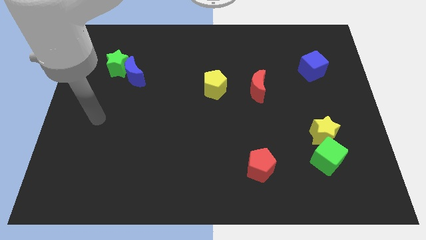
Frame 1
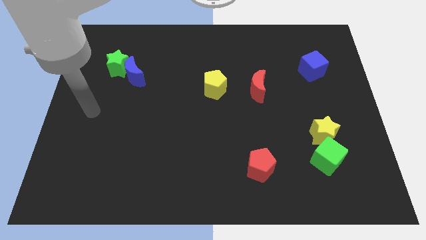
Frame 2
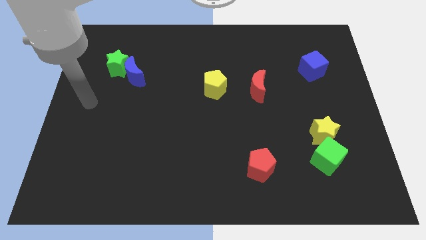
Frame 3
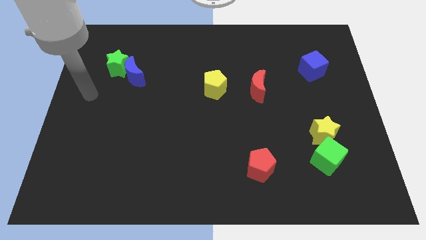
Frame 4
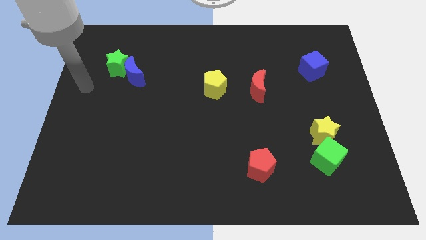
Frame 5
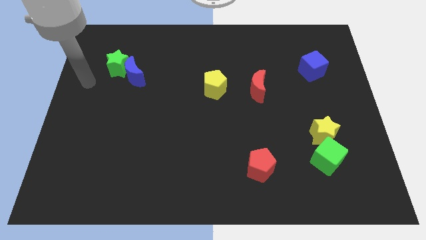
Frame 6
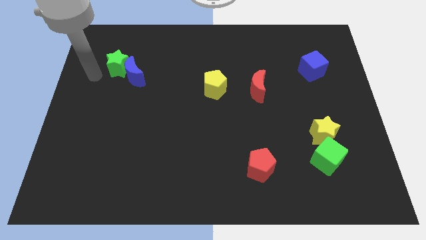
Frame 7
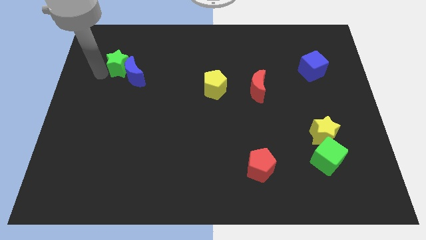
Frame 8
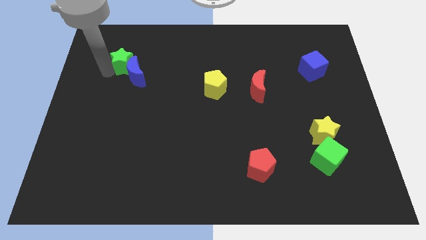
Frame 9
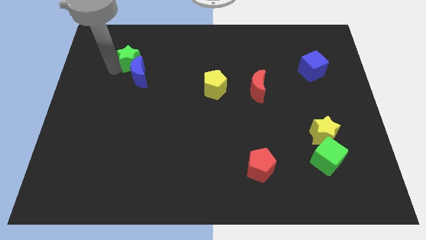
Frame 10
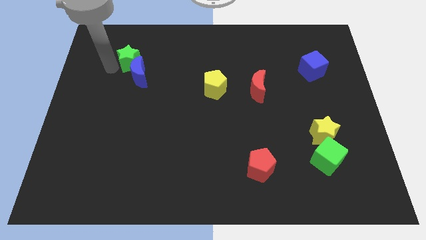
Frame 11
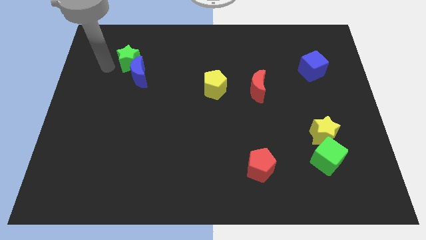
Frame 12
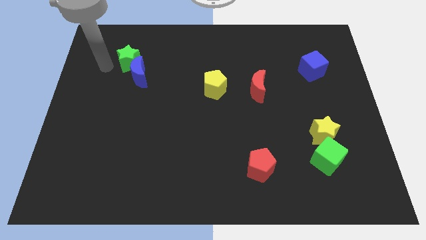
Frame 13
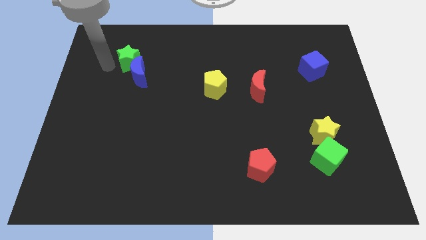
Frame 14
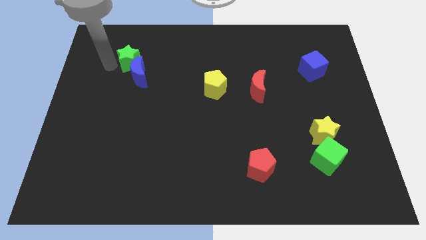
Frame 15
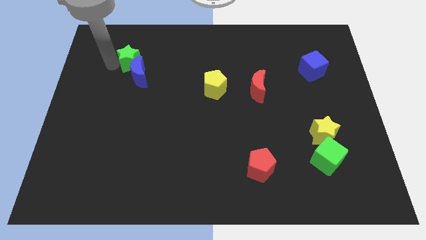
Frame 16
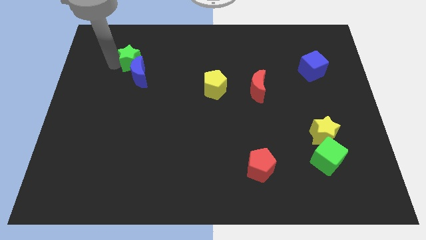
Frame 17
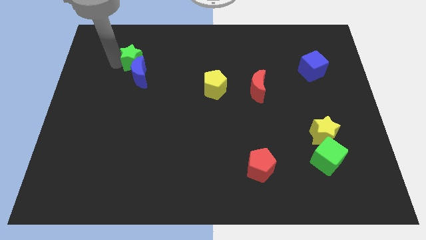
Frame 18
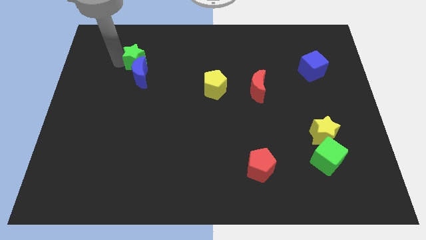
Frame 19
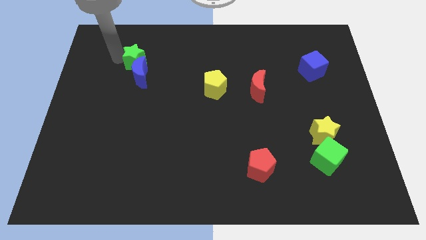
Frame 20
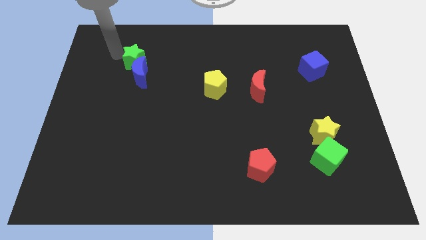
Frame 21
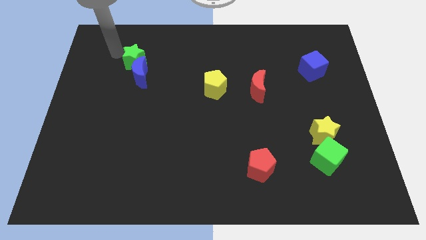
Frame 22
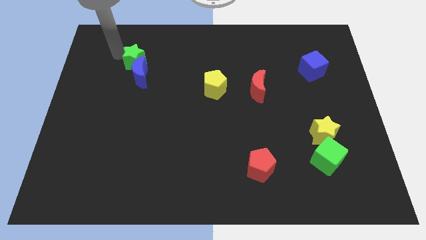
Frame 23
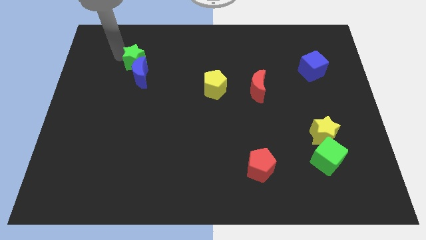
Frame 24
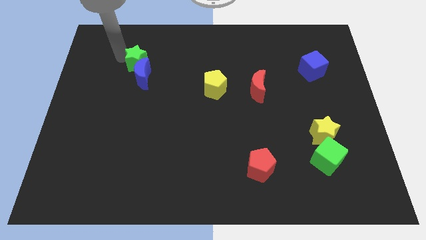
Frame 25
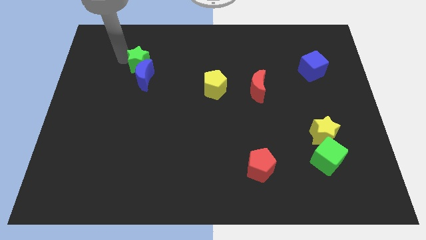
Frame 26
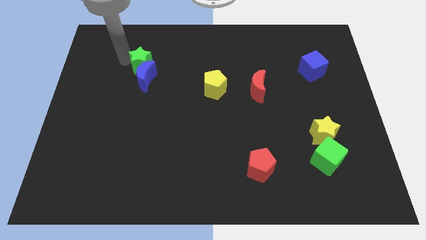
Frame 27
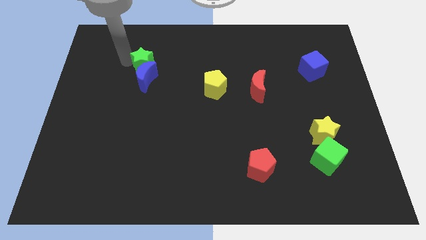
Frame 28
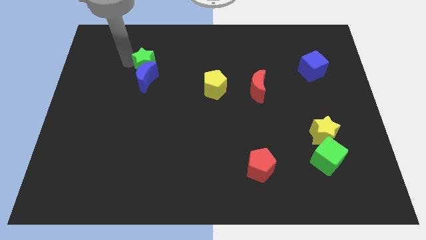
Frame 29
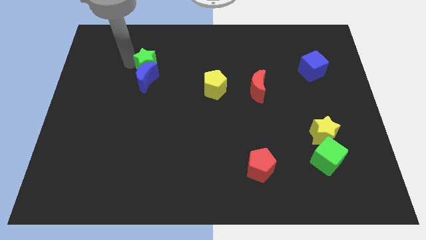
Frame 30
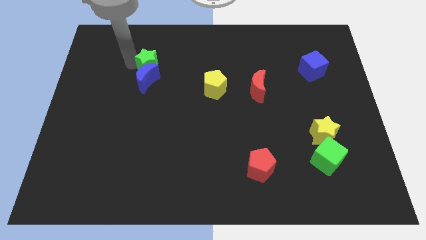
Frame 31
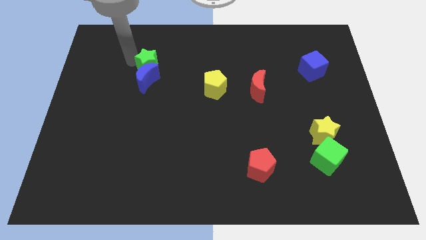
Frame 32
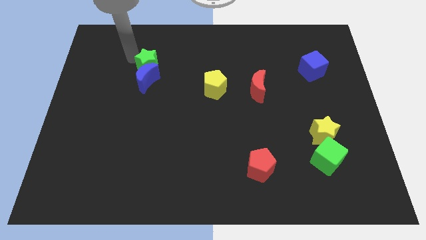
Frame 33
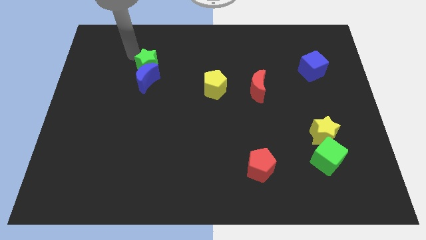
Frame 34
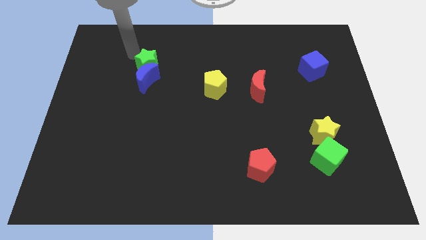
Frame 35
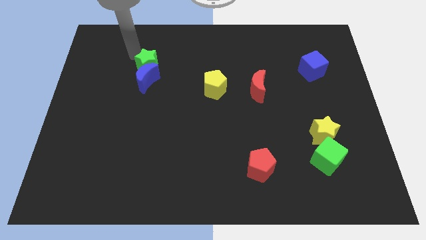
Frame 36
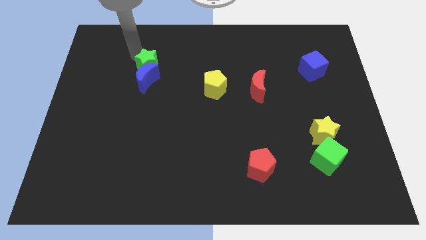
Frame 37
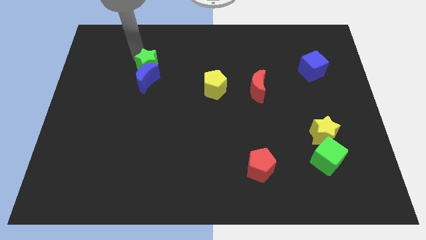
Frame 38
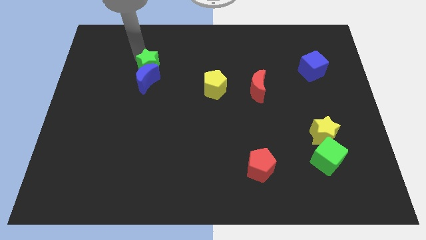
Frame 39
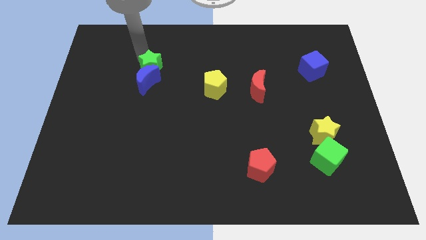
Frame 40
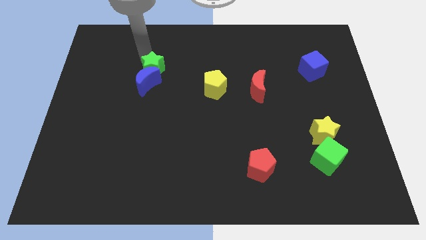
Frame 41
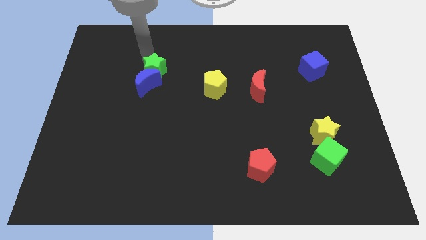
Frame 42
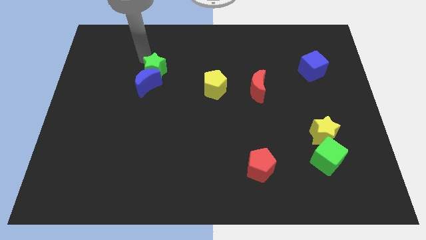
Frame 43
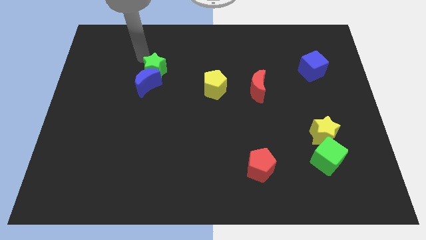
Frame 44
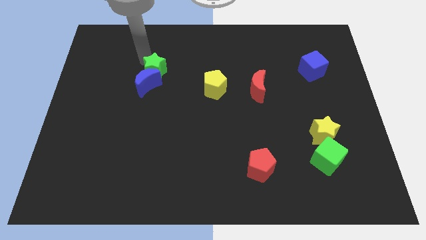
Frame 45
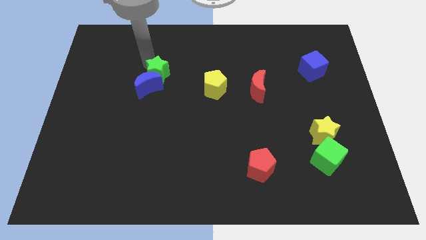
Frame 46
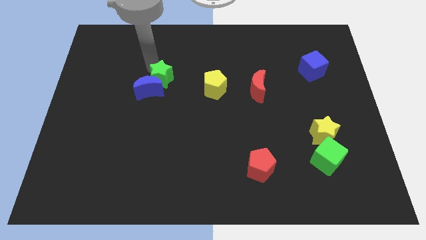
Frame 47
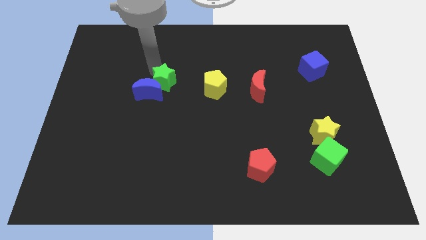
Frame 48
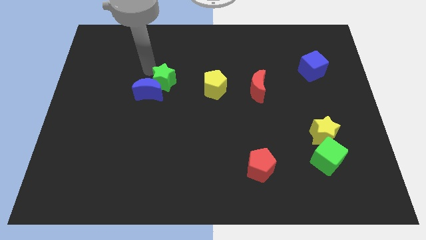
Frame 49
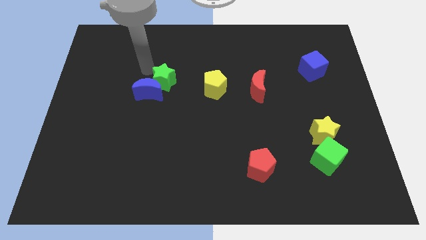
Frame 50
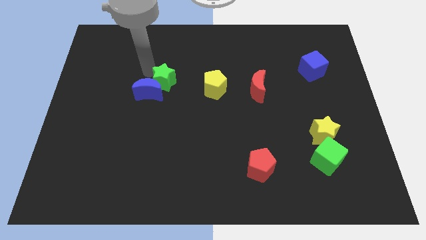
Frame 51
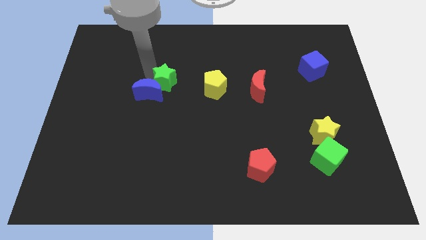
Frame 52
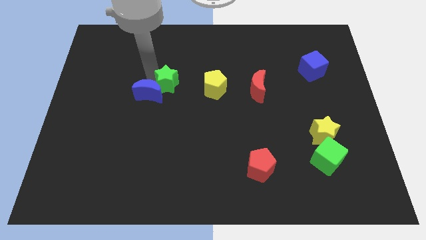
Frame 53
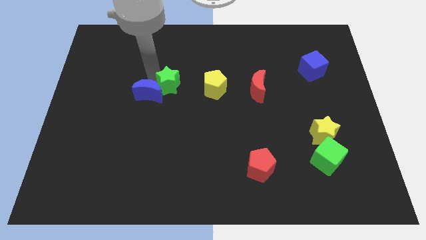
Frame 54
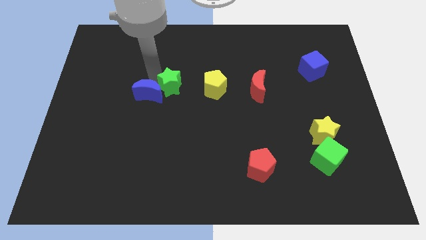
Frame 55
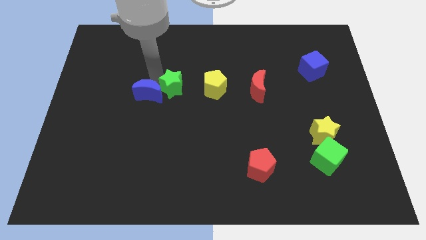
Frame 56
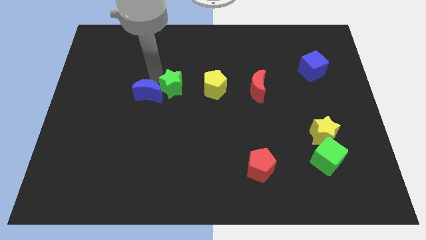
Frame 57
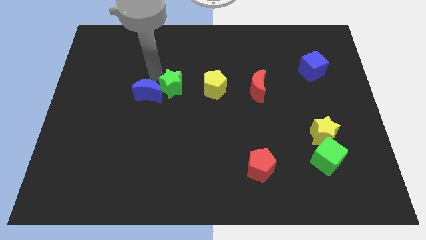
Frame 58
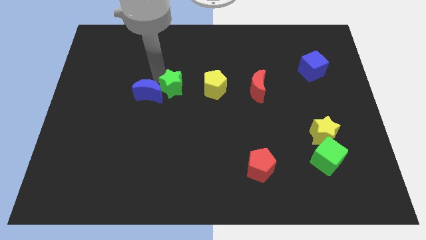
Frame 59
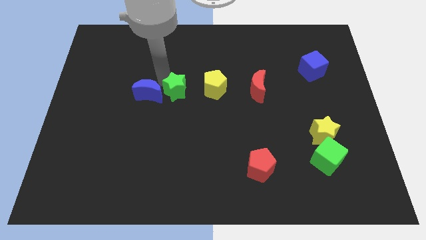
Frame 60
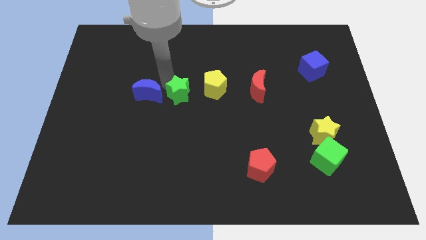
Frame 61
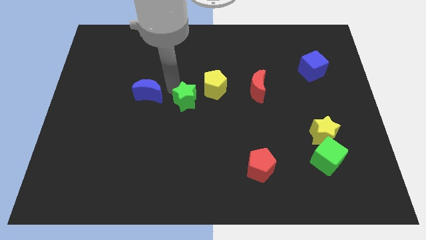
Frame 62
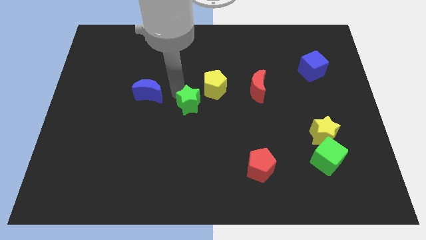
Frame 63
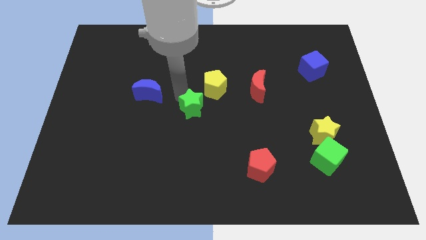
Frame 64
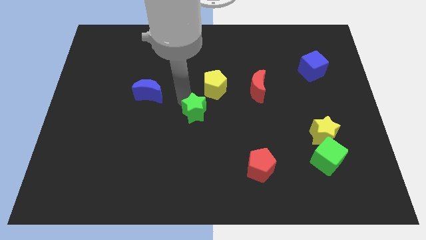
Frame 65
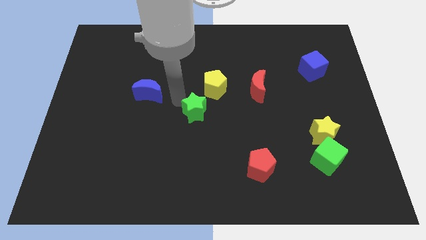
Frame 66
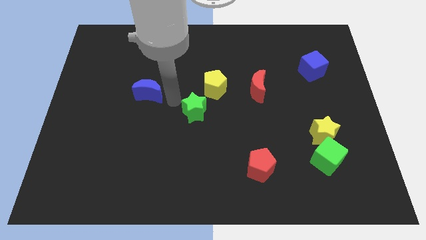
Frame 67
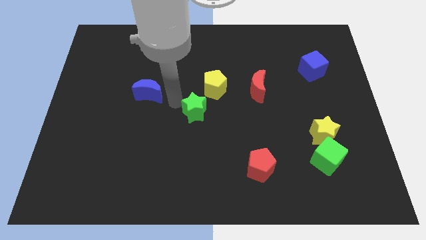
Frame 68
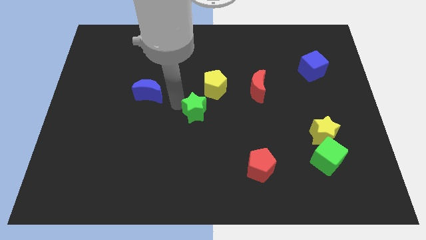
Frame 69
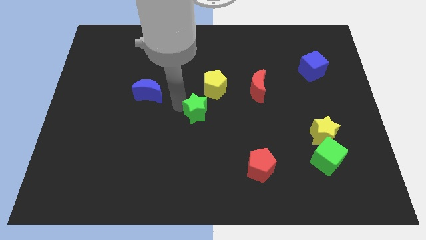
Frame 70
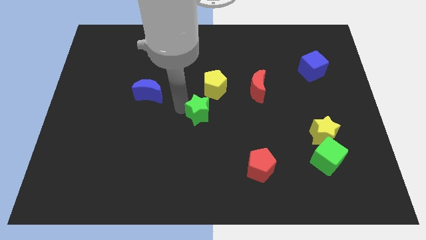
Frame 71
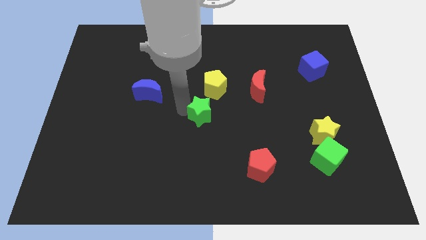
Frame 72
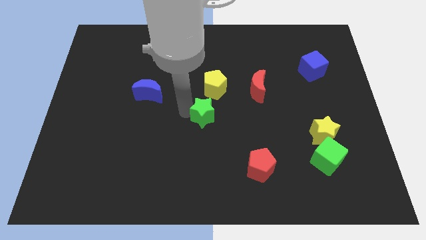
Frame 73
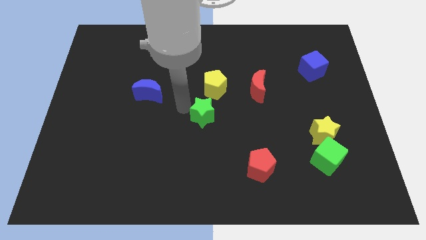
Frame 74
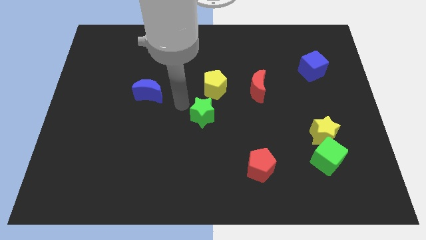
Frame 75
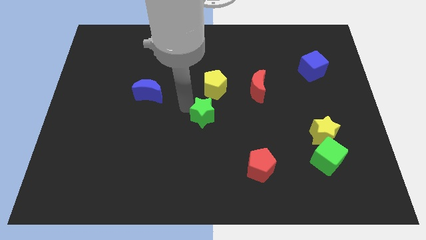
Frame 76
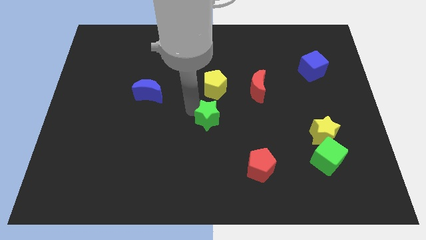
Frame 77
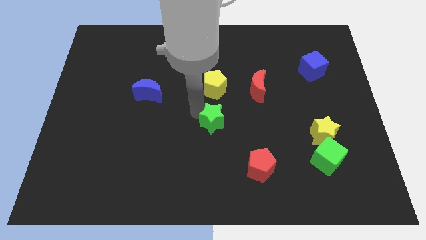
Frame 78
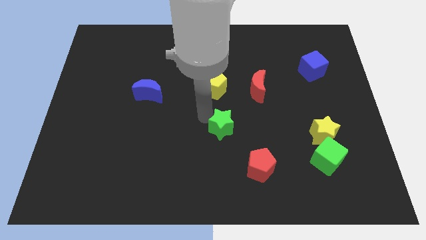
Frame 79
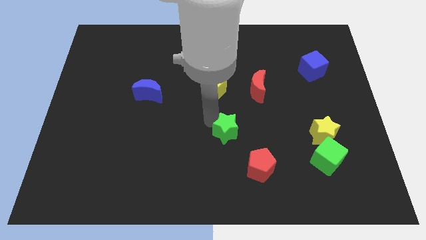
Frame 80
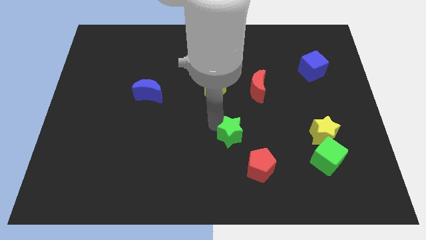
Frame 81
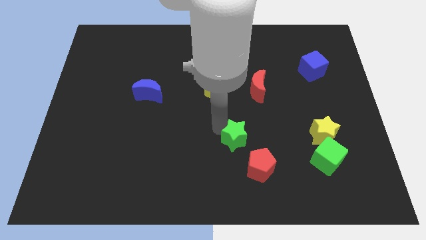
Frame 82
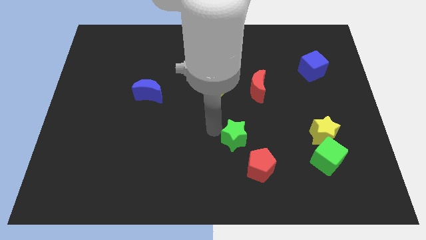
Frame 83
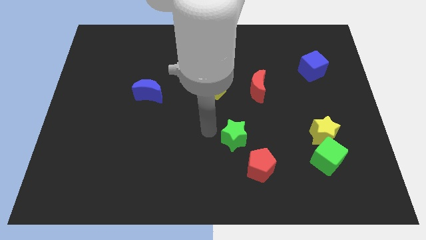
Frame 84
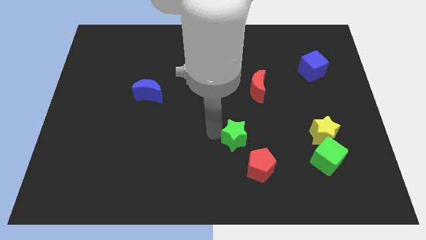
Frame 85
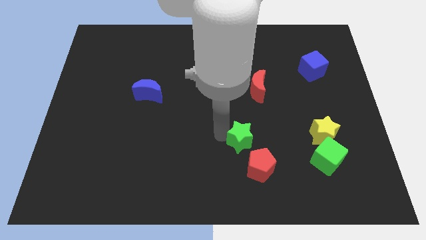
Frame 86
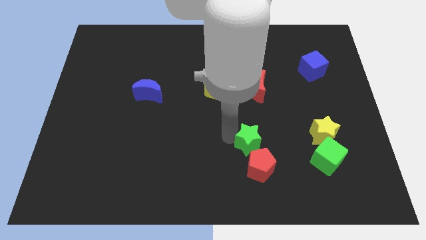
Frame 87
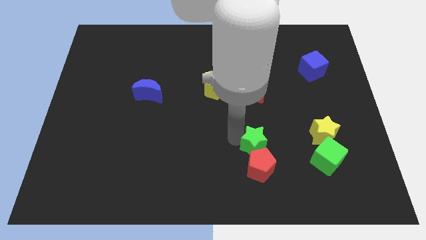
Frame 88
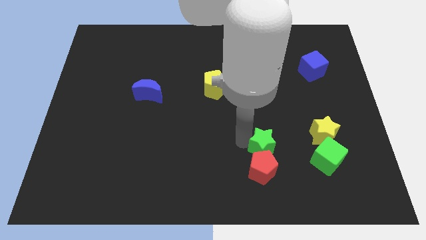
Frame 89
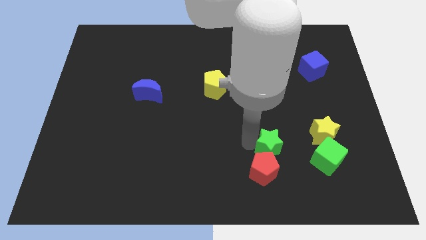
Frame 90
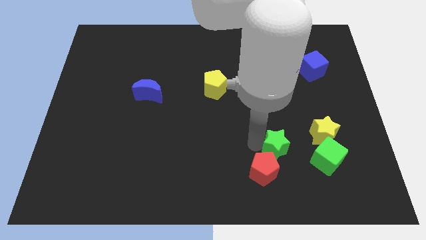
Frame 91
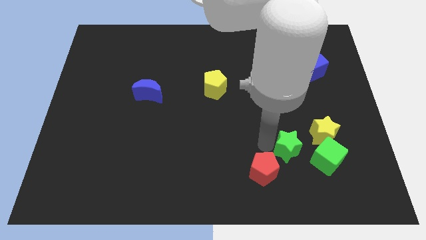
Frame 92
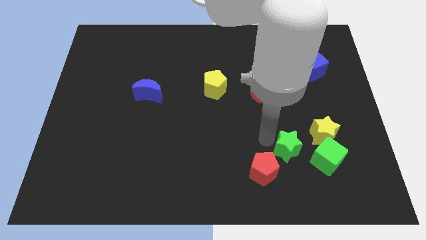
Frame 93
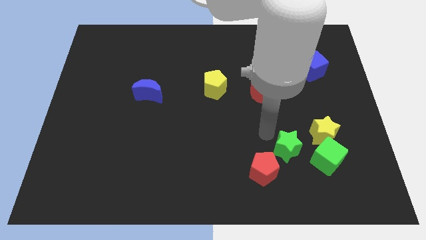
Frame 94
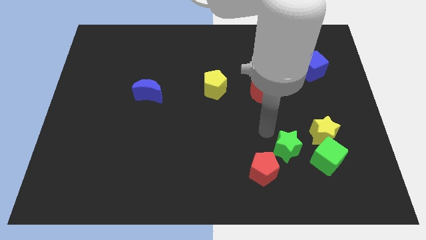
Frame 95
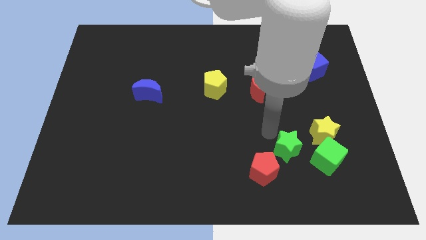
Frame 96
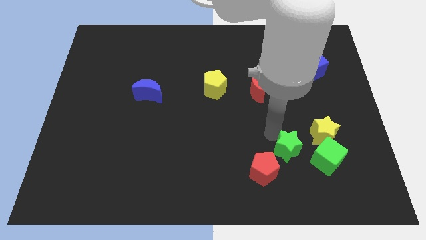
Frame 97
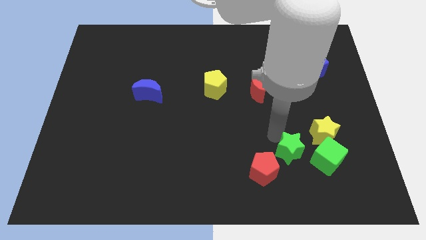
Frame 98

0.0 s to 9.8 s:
put the green star just right of the red pentagon
